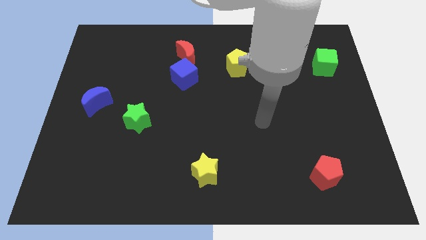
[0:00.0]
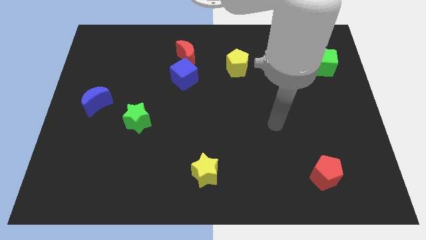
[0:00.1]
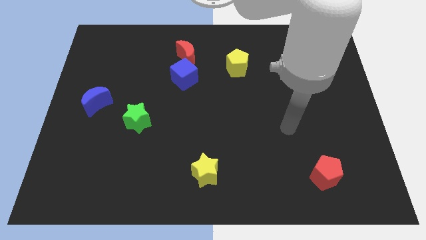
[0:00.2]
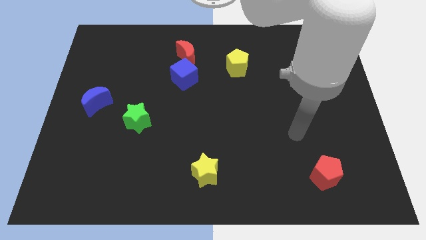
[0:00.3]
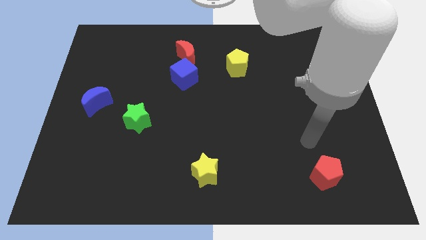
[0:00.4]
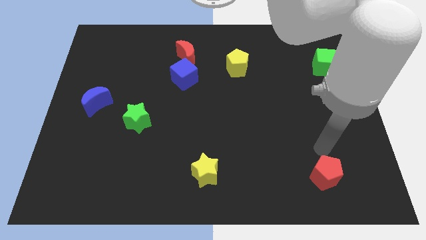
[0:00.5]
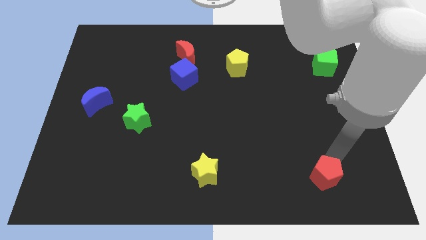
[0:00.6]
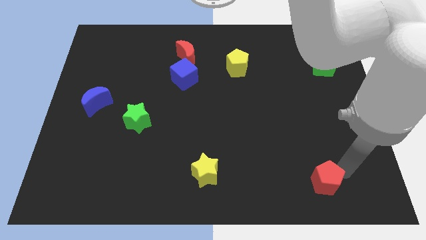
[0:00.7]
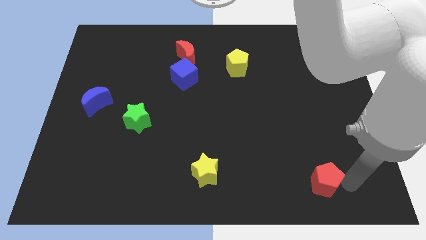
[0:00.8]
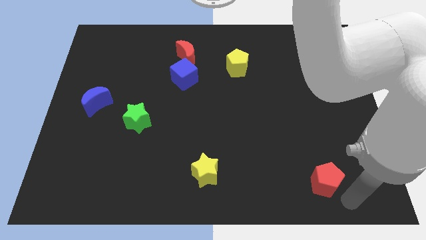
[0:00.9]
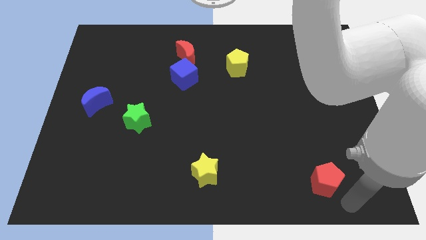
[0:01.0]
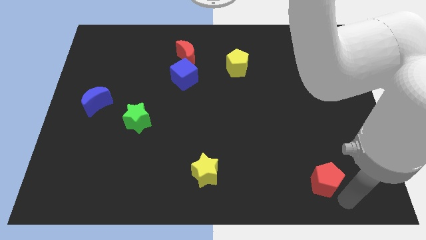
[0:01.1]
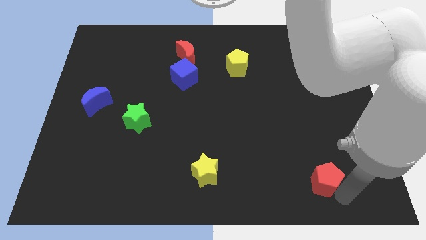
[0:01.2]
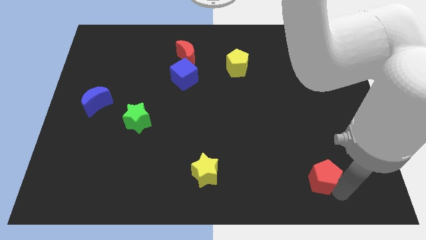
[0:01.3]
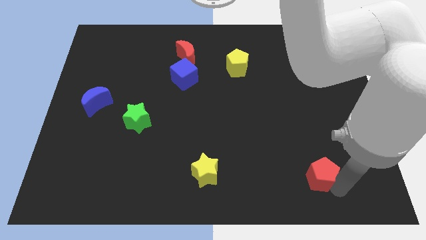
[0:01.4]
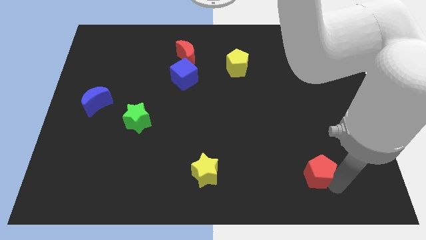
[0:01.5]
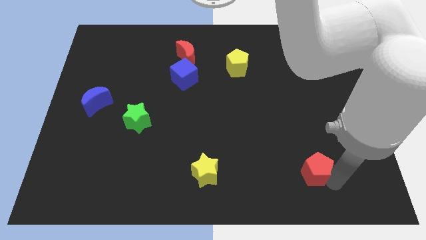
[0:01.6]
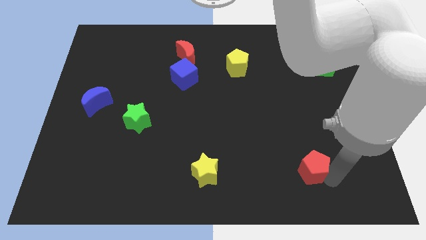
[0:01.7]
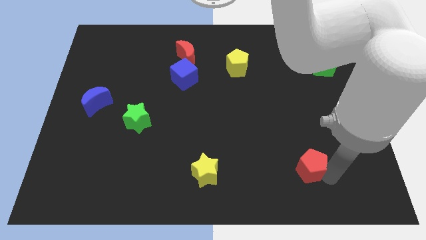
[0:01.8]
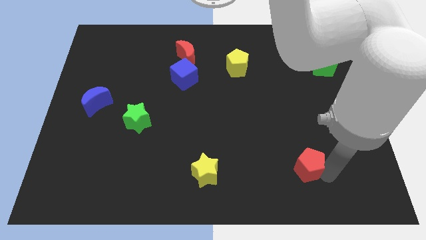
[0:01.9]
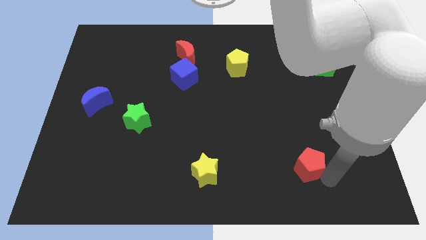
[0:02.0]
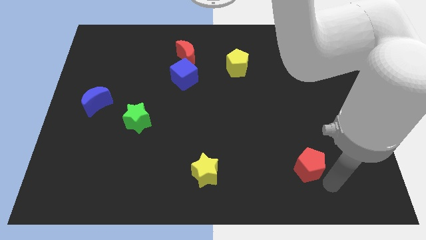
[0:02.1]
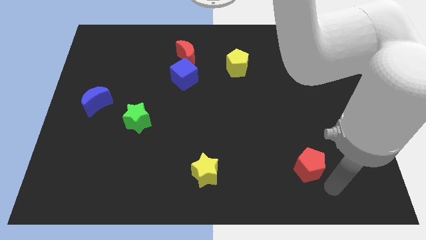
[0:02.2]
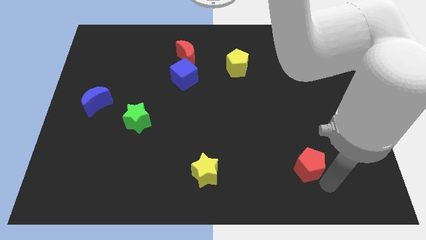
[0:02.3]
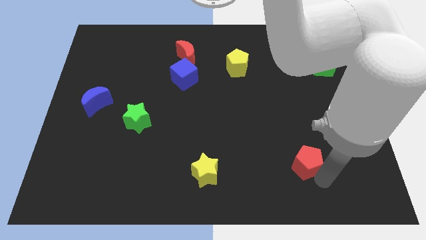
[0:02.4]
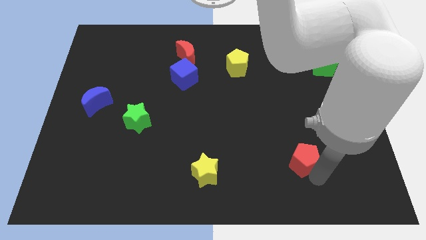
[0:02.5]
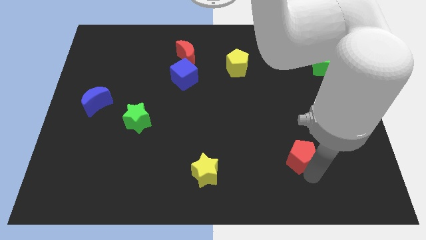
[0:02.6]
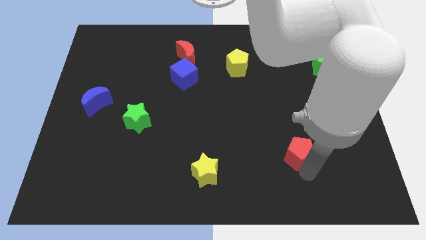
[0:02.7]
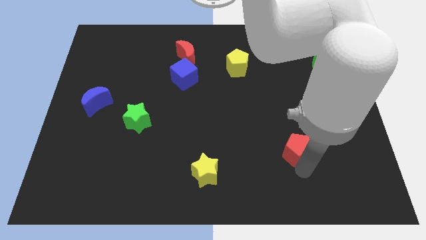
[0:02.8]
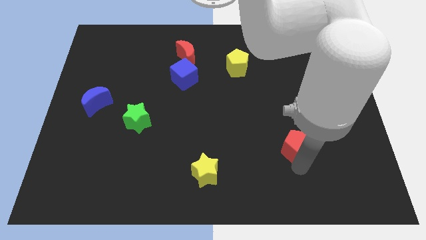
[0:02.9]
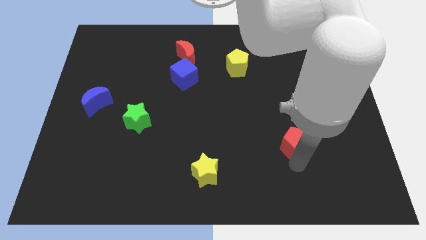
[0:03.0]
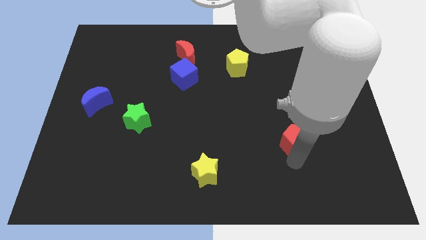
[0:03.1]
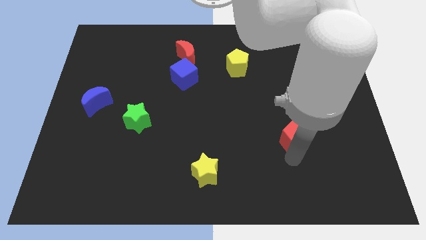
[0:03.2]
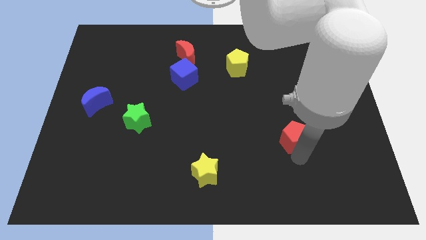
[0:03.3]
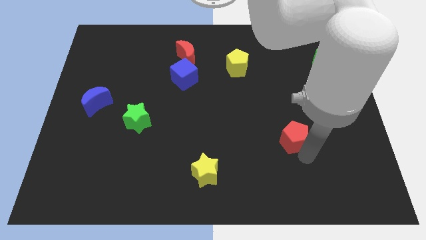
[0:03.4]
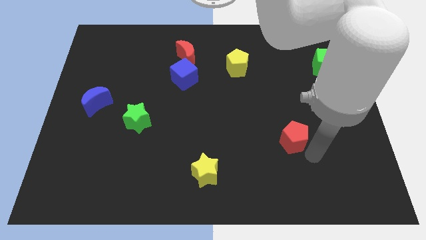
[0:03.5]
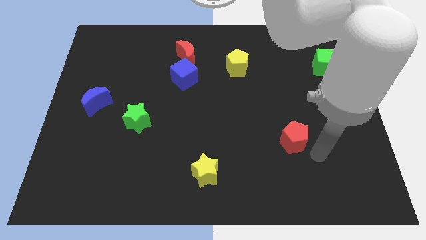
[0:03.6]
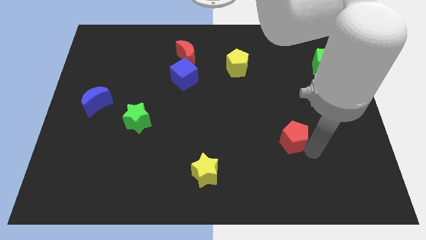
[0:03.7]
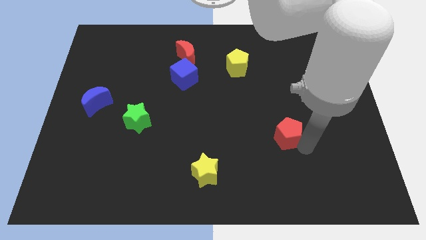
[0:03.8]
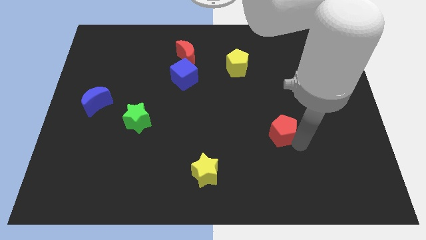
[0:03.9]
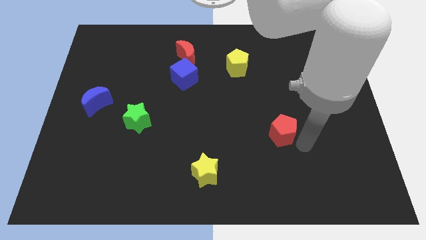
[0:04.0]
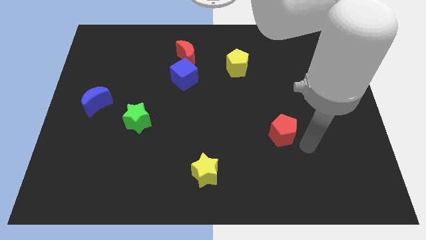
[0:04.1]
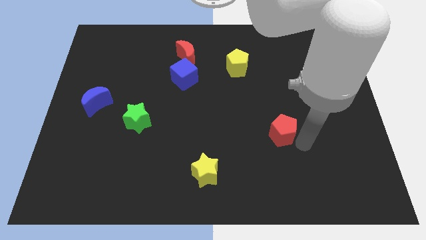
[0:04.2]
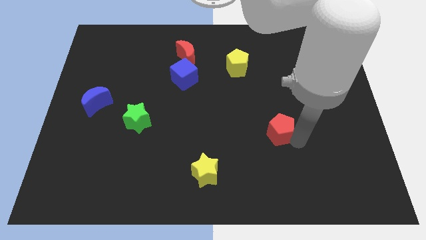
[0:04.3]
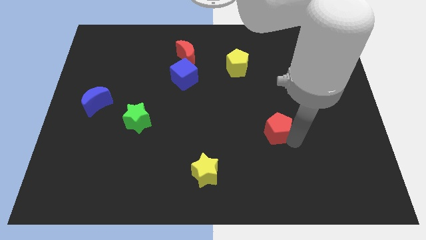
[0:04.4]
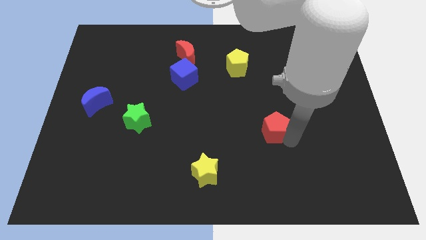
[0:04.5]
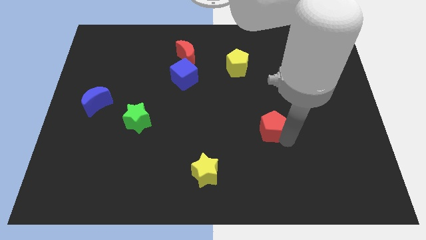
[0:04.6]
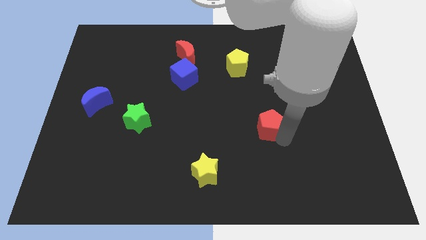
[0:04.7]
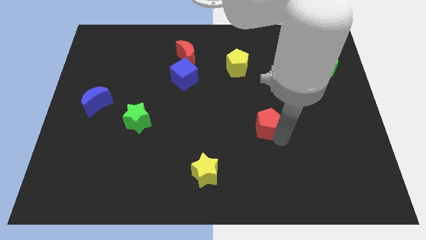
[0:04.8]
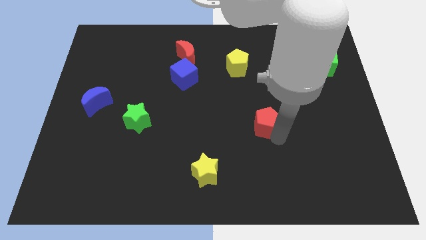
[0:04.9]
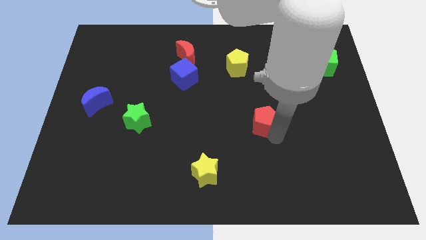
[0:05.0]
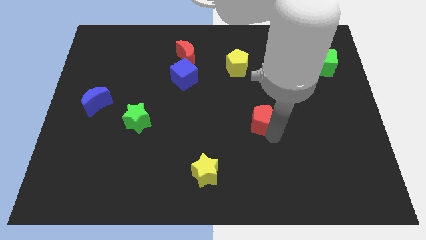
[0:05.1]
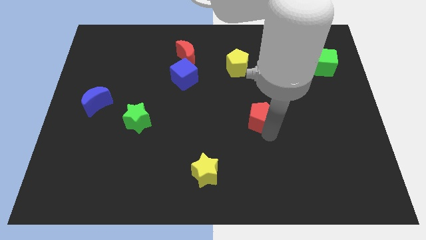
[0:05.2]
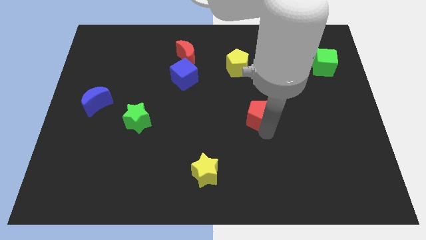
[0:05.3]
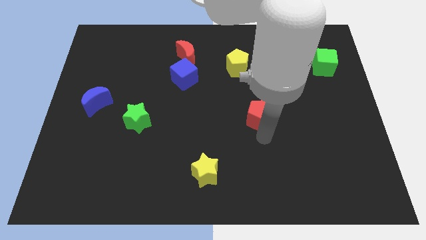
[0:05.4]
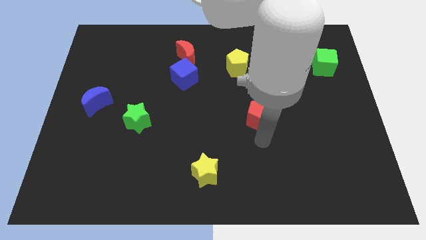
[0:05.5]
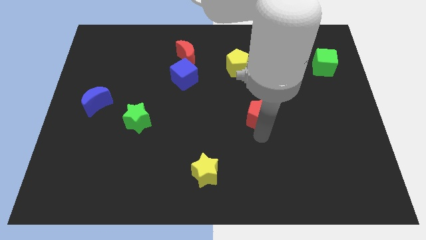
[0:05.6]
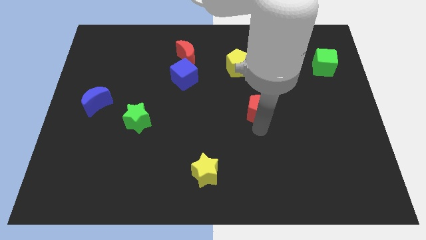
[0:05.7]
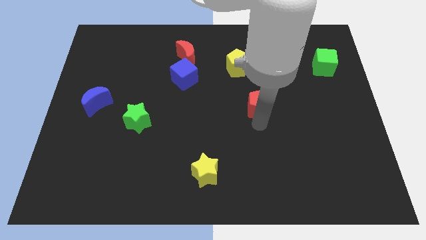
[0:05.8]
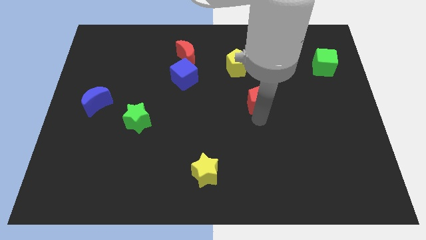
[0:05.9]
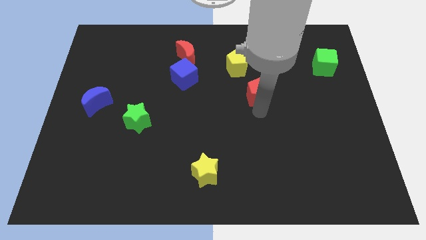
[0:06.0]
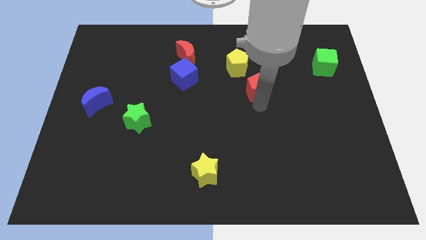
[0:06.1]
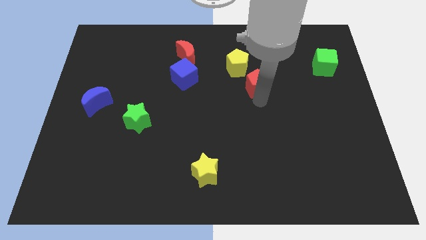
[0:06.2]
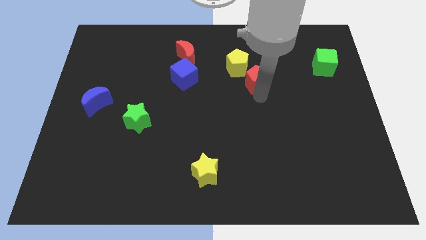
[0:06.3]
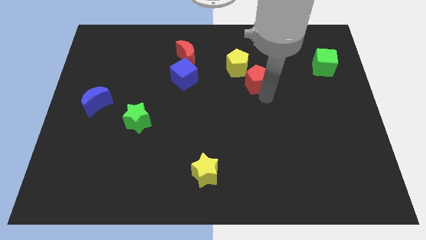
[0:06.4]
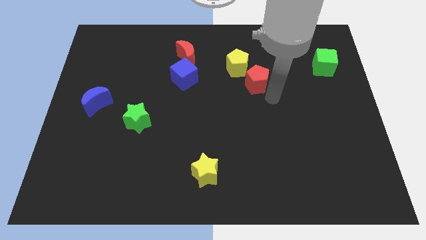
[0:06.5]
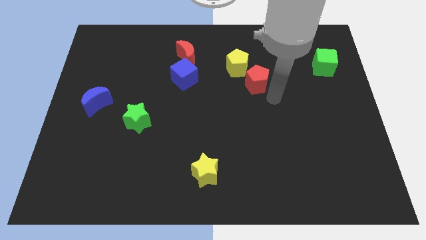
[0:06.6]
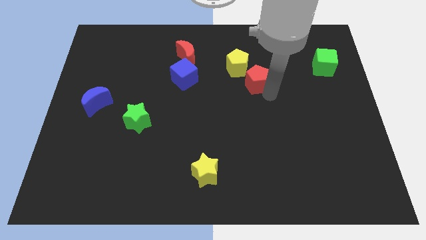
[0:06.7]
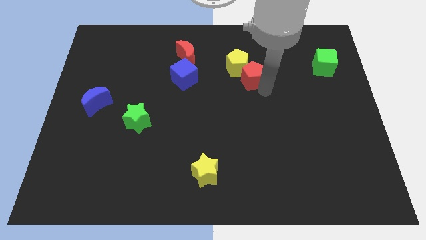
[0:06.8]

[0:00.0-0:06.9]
move the red pentagon close to the yellow pentagon
